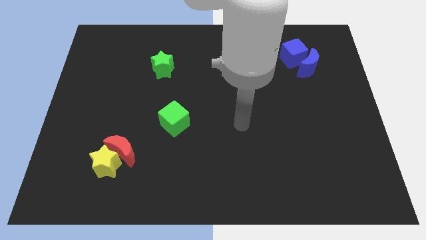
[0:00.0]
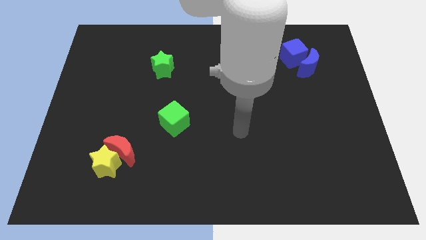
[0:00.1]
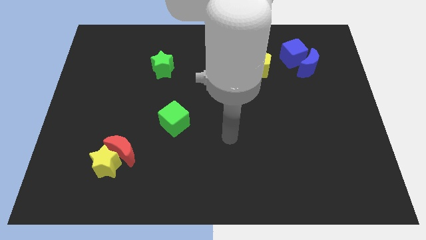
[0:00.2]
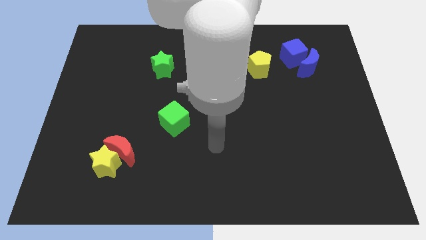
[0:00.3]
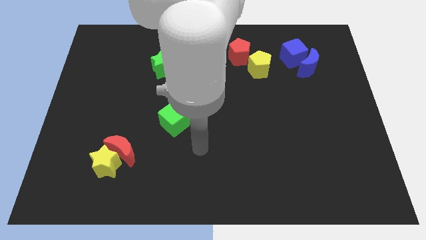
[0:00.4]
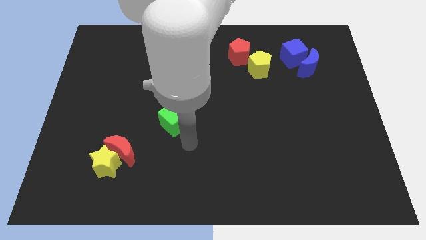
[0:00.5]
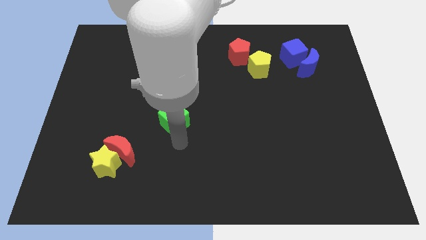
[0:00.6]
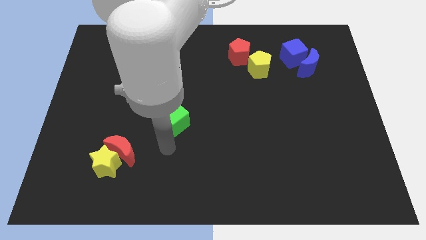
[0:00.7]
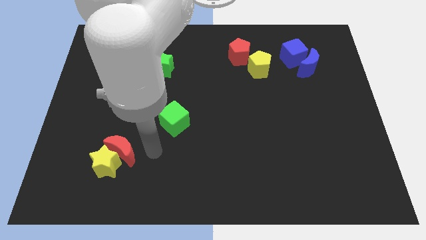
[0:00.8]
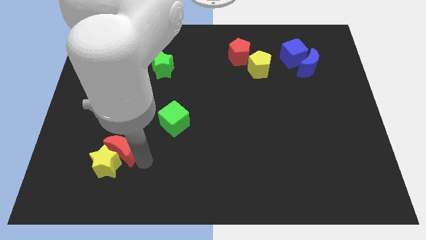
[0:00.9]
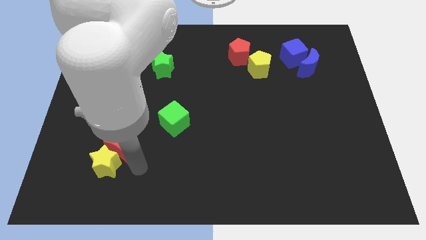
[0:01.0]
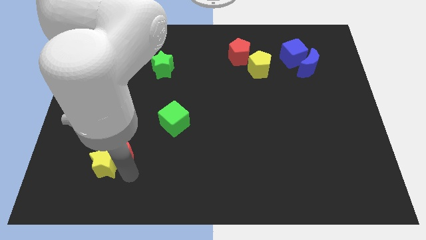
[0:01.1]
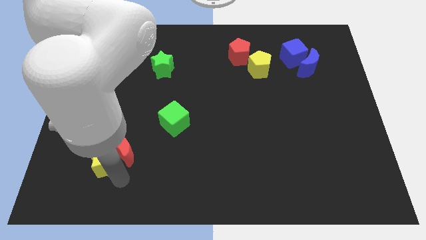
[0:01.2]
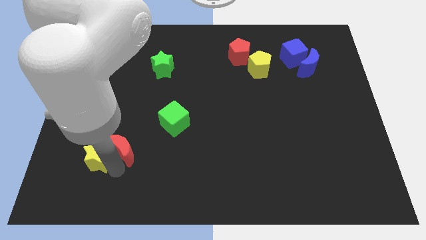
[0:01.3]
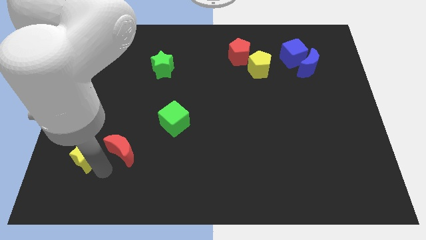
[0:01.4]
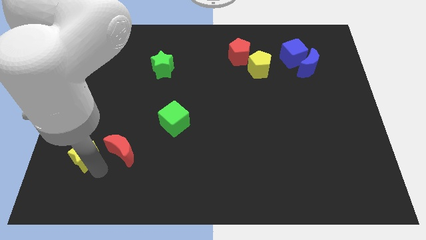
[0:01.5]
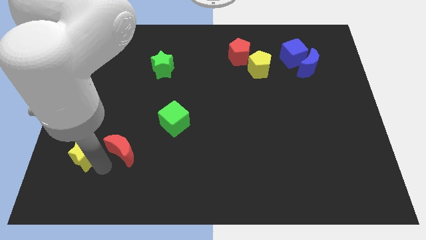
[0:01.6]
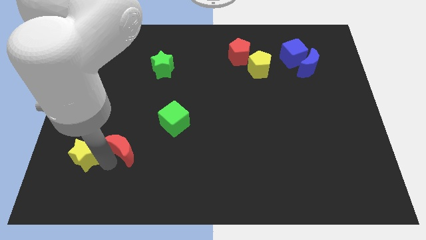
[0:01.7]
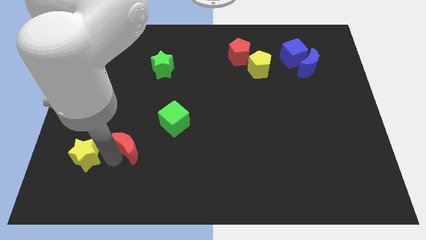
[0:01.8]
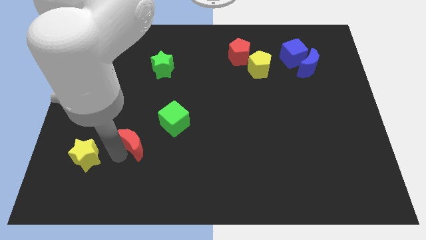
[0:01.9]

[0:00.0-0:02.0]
move the red moon away from the yellow star

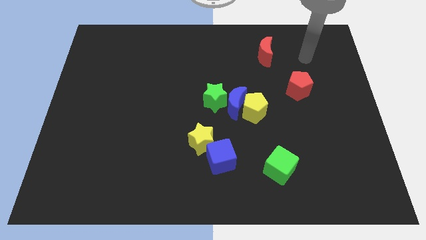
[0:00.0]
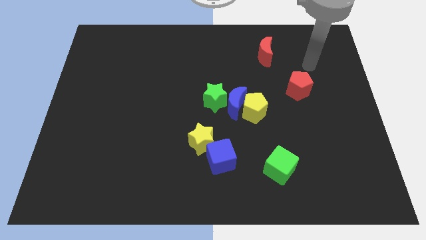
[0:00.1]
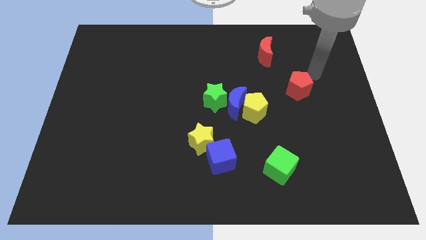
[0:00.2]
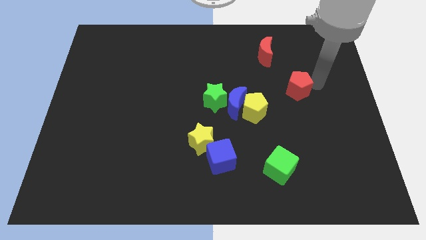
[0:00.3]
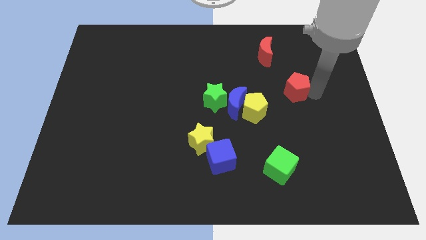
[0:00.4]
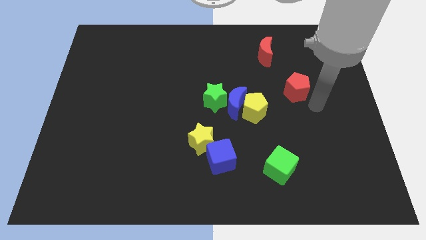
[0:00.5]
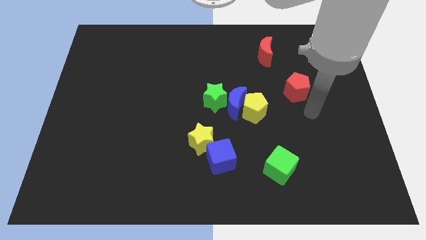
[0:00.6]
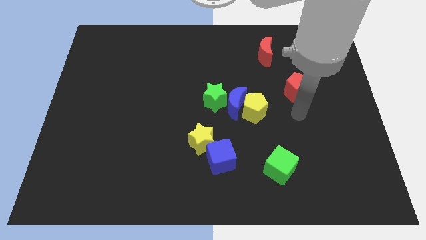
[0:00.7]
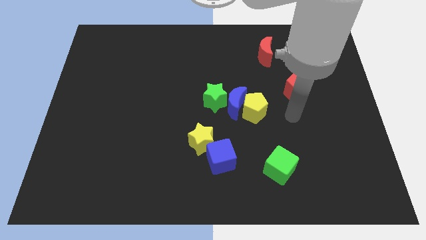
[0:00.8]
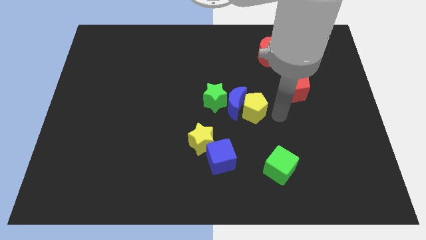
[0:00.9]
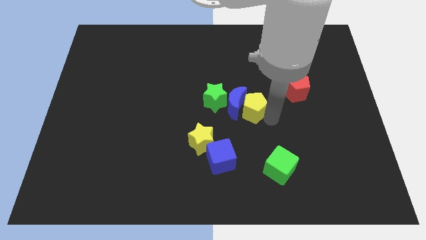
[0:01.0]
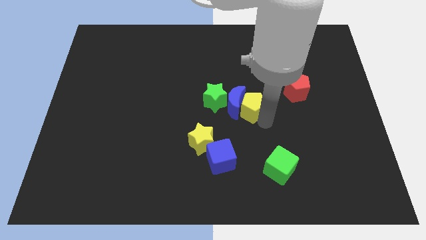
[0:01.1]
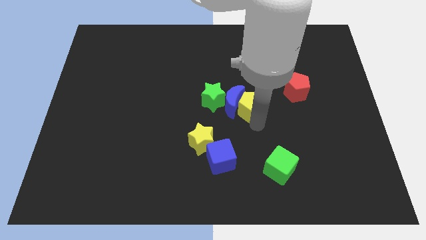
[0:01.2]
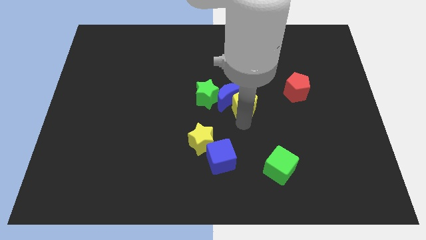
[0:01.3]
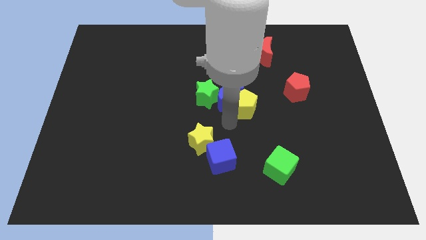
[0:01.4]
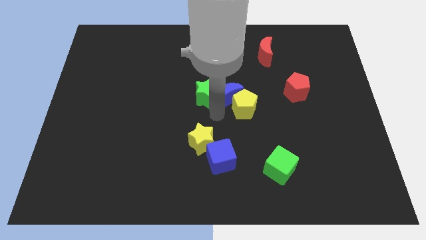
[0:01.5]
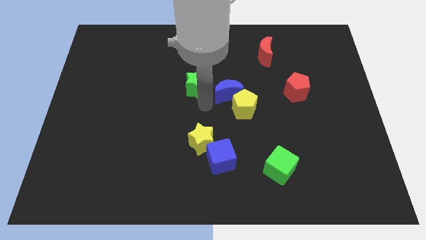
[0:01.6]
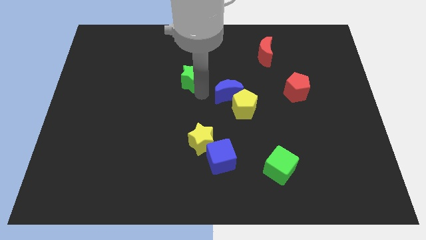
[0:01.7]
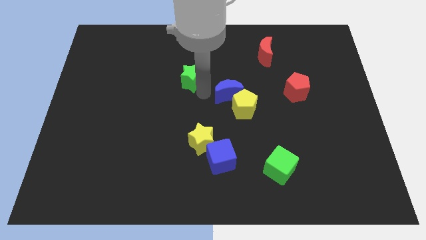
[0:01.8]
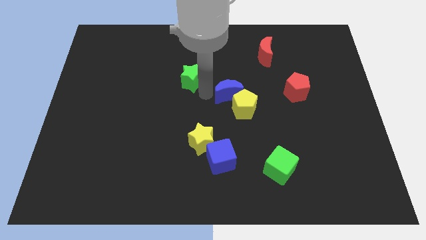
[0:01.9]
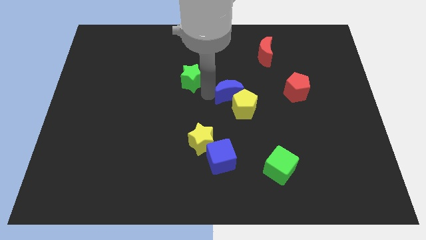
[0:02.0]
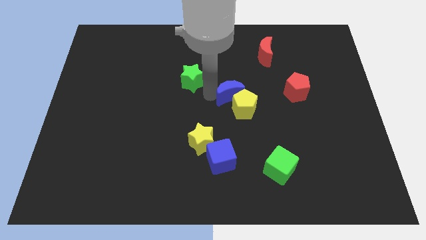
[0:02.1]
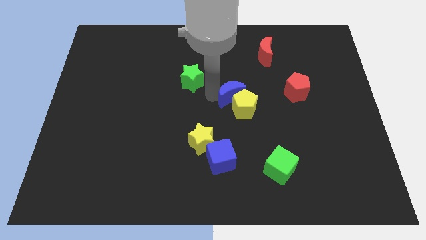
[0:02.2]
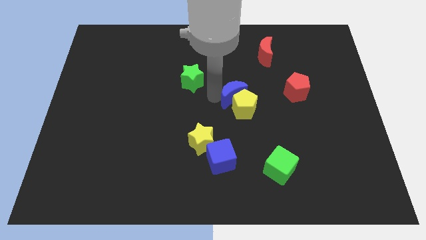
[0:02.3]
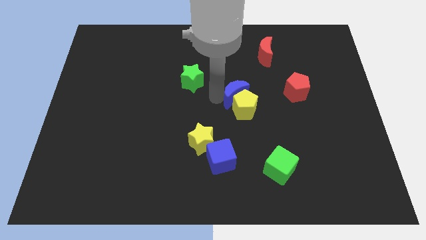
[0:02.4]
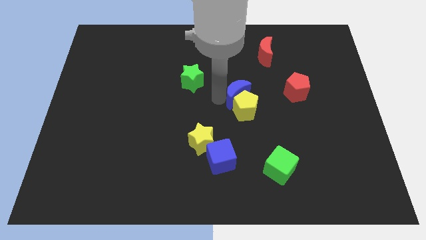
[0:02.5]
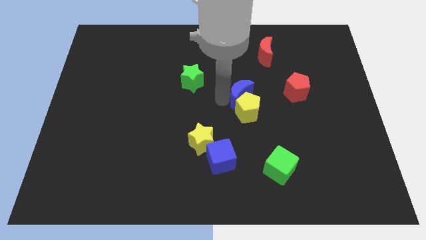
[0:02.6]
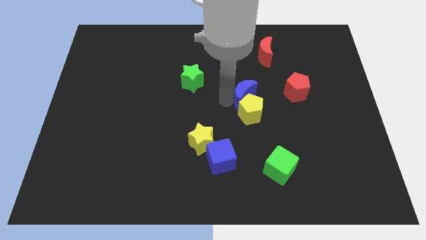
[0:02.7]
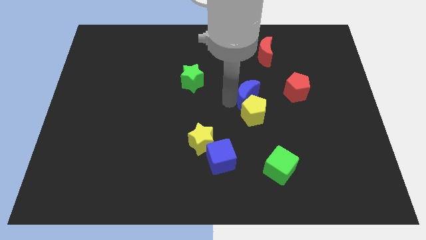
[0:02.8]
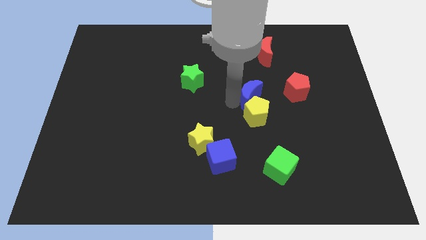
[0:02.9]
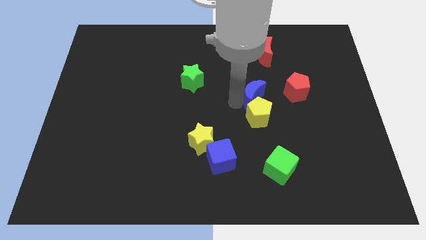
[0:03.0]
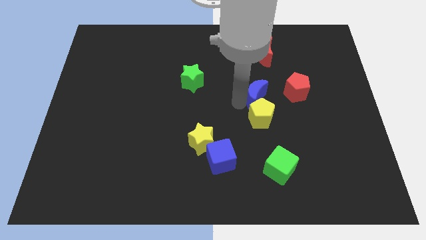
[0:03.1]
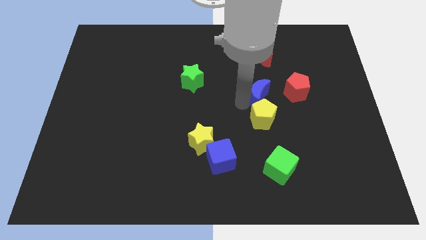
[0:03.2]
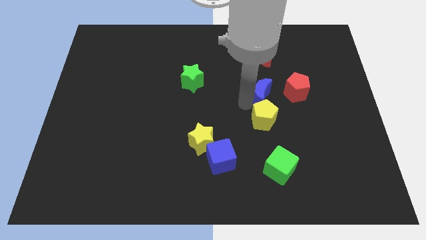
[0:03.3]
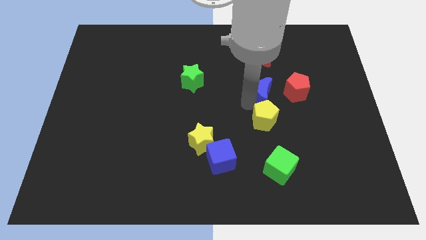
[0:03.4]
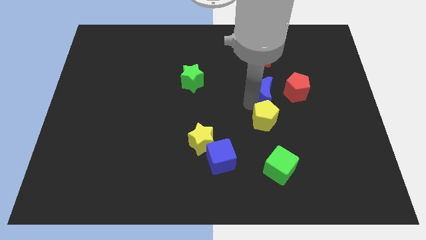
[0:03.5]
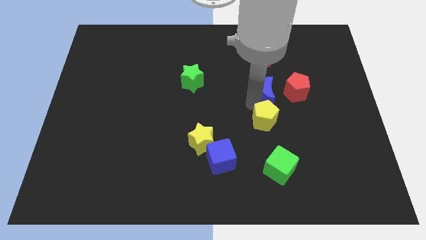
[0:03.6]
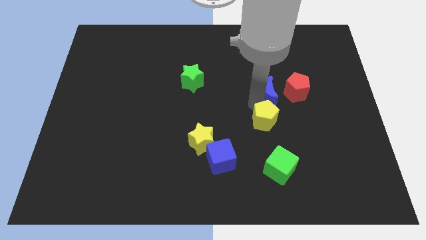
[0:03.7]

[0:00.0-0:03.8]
separate the blue moon from the yellow pentagon and green star

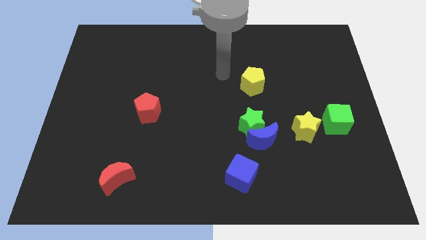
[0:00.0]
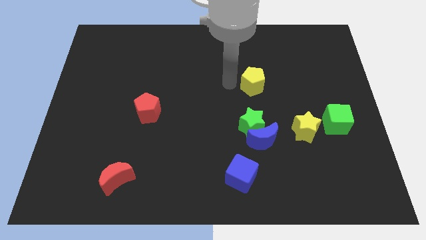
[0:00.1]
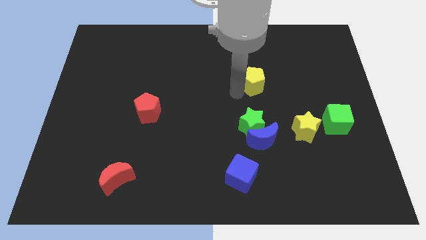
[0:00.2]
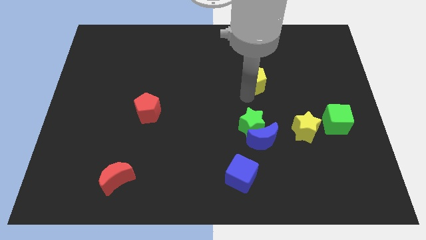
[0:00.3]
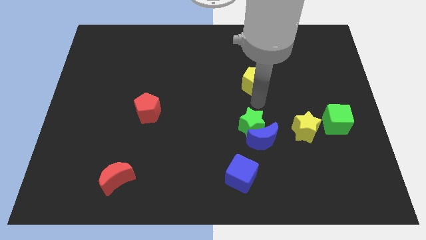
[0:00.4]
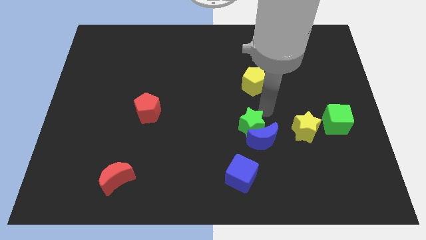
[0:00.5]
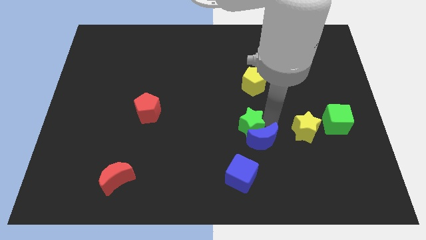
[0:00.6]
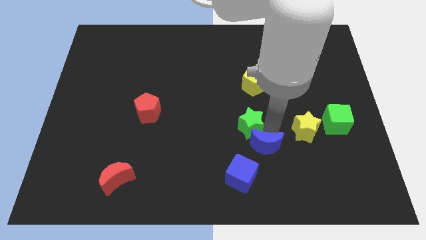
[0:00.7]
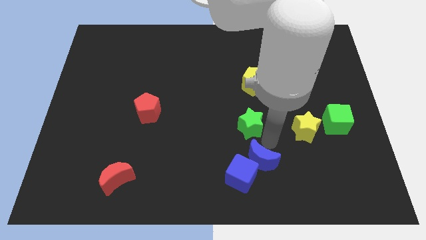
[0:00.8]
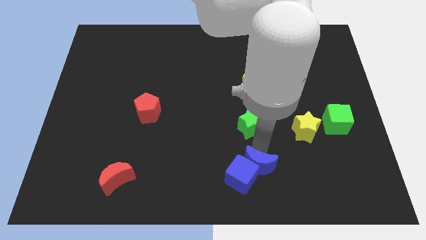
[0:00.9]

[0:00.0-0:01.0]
separate the green star from the blue moon

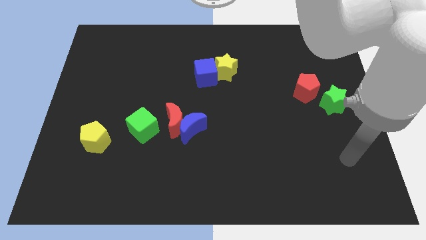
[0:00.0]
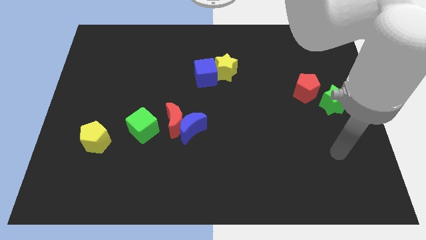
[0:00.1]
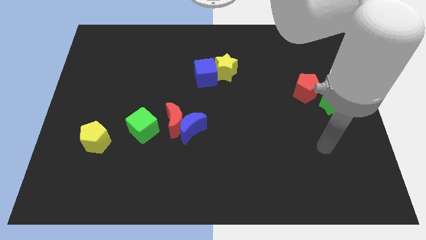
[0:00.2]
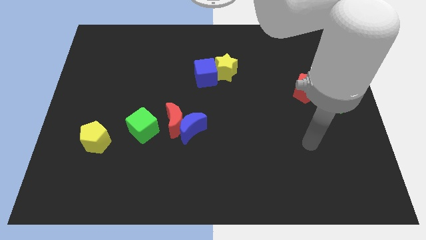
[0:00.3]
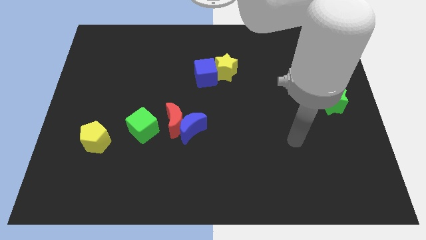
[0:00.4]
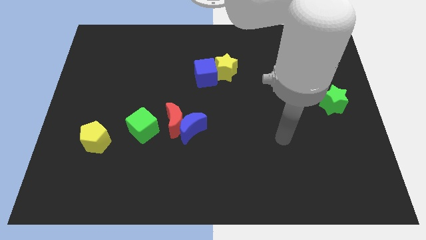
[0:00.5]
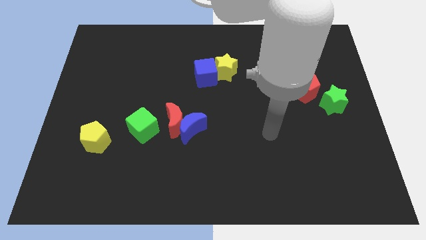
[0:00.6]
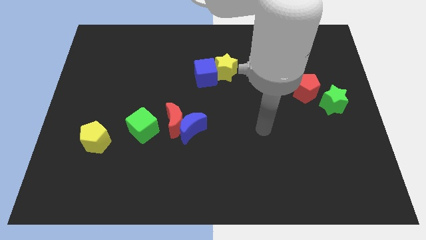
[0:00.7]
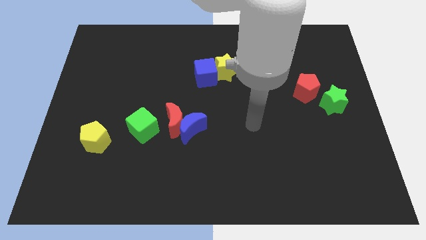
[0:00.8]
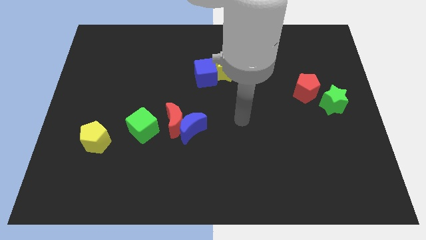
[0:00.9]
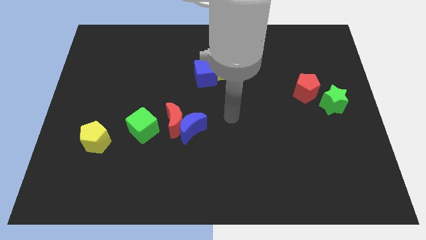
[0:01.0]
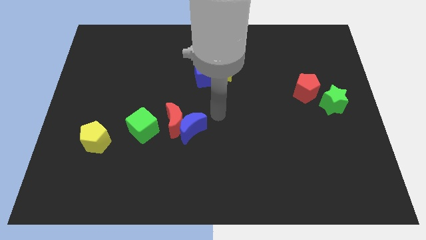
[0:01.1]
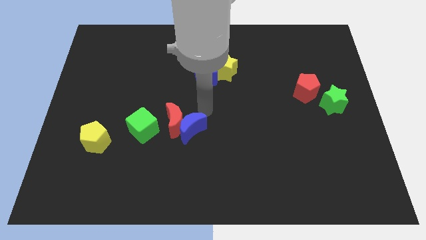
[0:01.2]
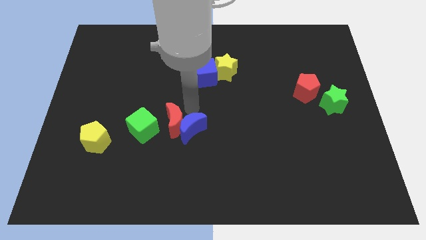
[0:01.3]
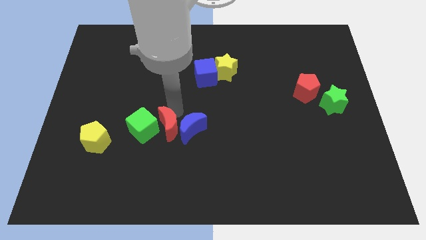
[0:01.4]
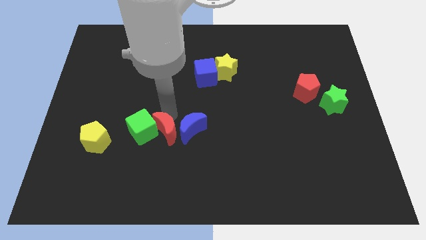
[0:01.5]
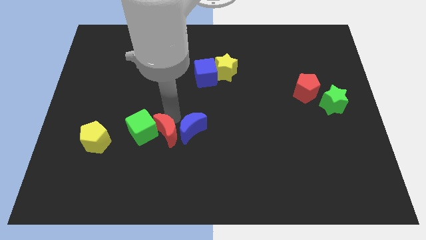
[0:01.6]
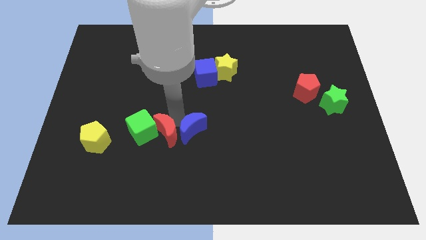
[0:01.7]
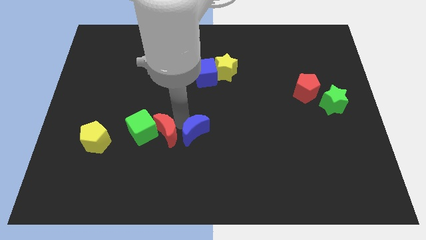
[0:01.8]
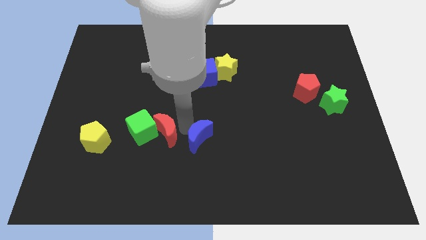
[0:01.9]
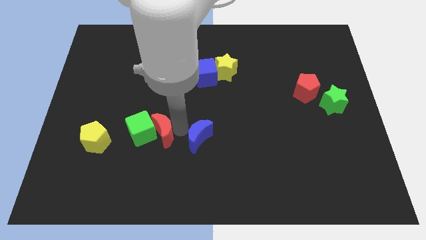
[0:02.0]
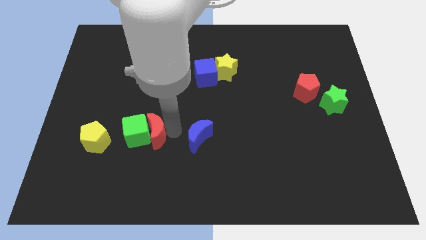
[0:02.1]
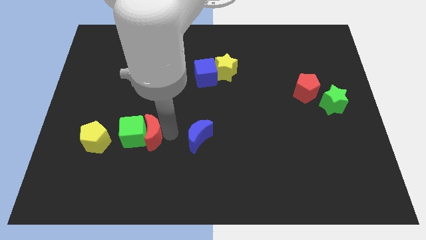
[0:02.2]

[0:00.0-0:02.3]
pull the blue moon apart from the red moon
